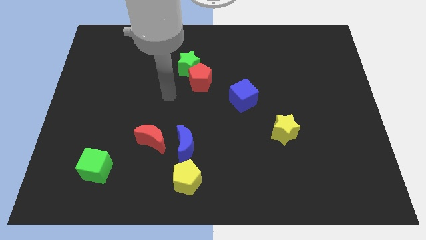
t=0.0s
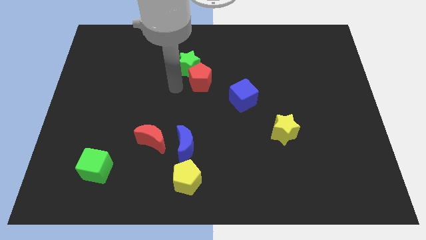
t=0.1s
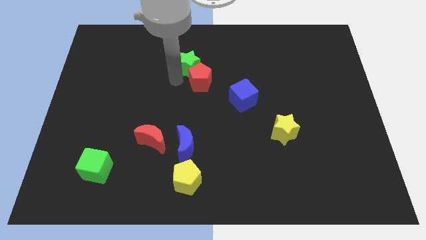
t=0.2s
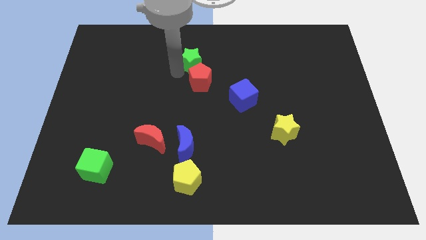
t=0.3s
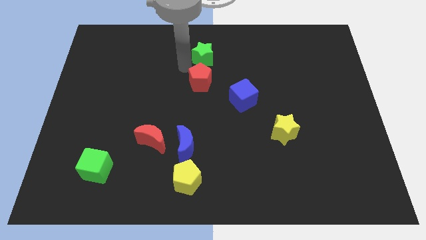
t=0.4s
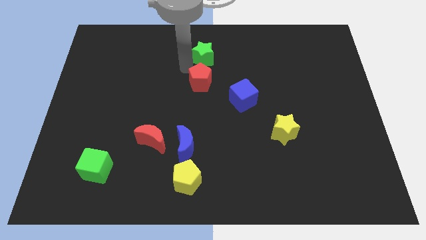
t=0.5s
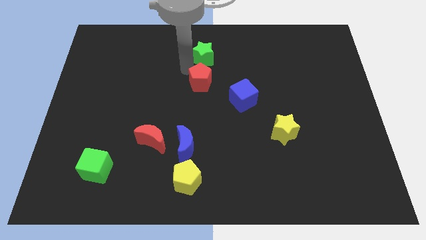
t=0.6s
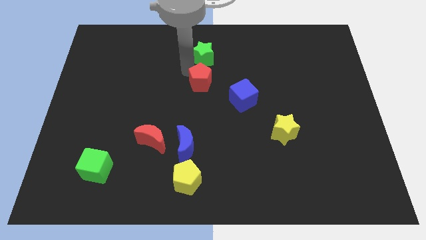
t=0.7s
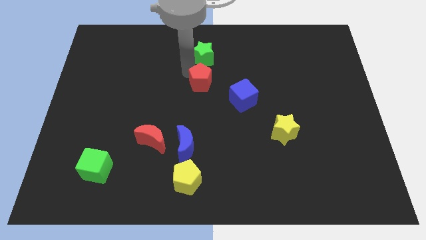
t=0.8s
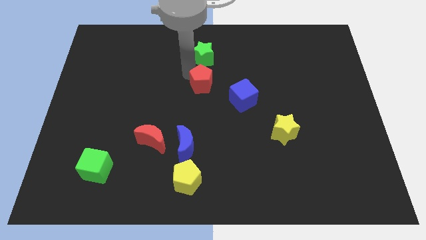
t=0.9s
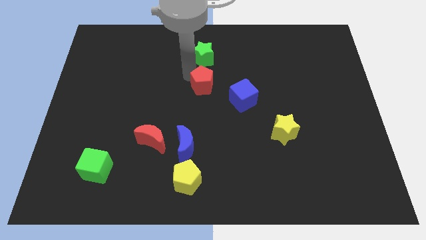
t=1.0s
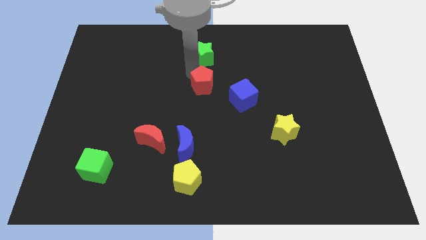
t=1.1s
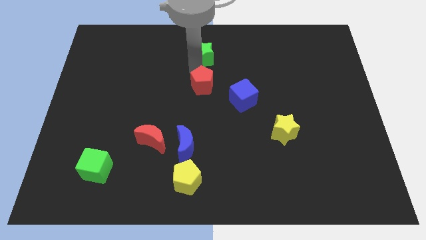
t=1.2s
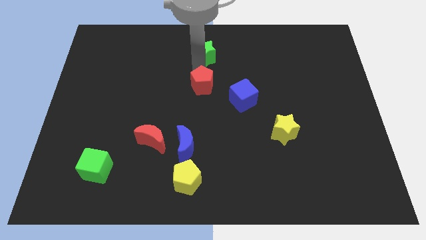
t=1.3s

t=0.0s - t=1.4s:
move the red pentagon away from the green star

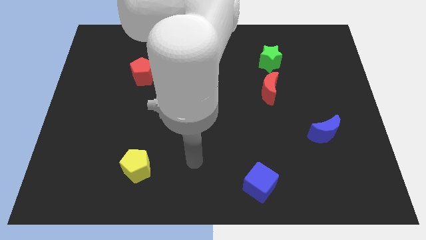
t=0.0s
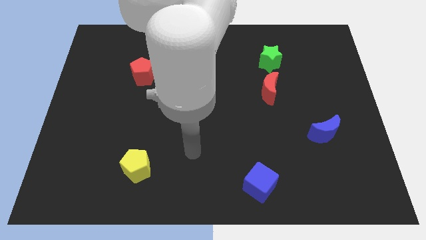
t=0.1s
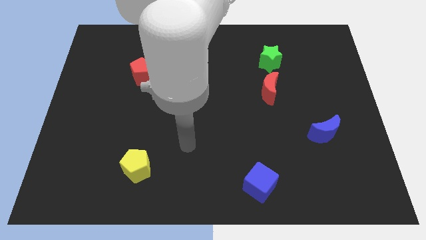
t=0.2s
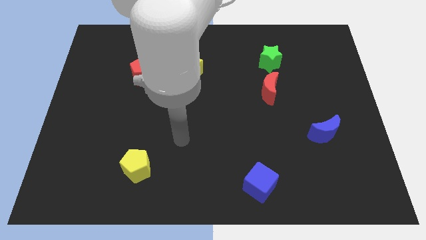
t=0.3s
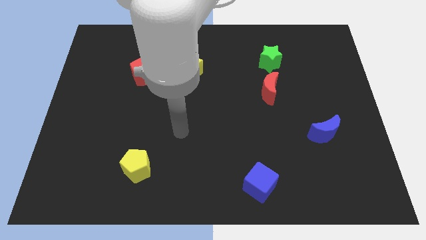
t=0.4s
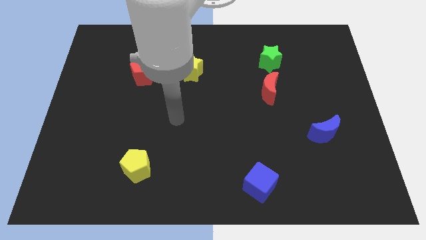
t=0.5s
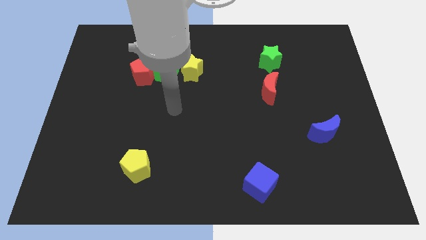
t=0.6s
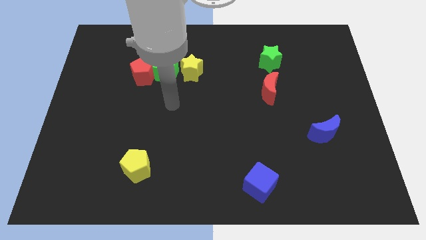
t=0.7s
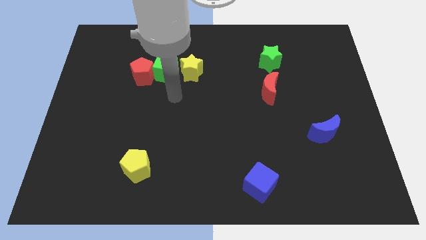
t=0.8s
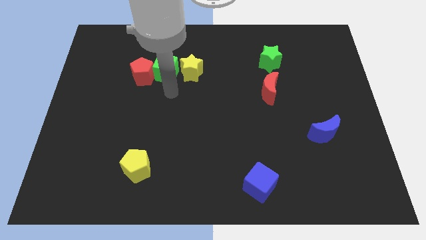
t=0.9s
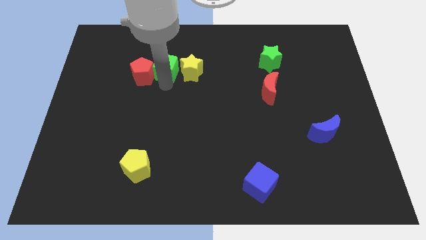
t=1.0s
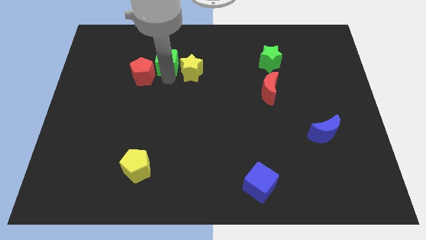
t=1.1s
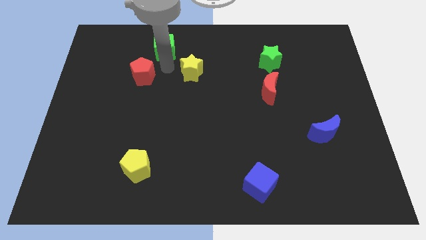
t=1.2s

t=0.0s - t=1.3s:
separate the red pentagon from the green cube

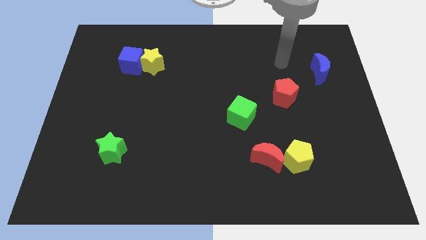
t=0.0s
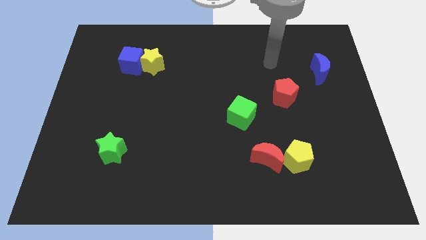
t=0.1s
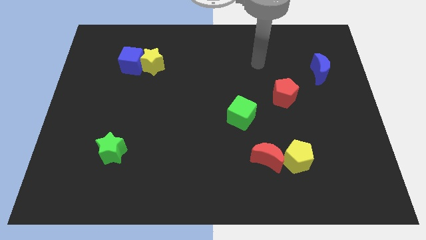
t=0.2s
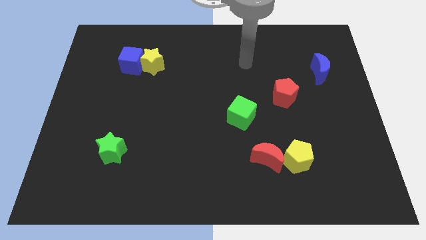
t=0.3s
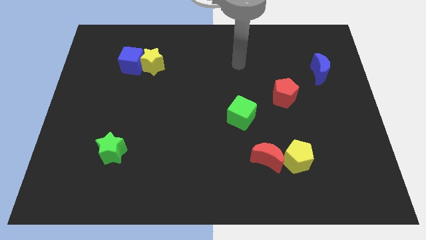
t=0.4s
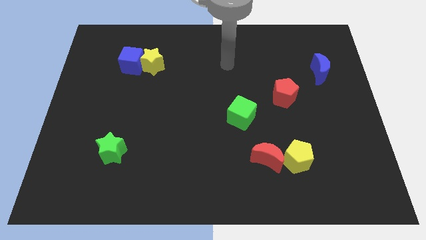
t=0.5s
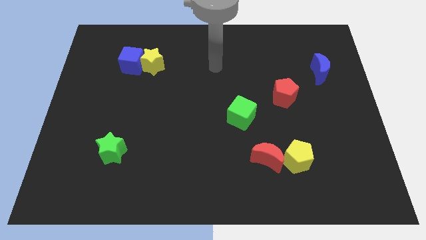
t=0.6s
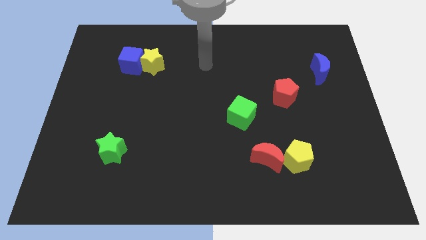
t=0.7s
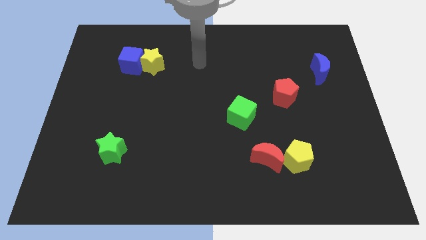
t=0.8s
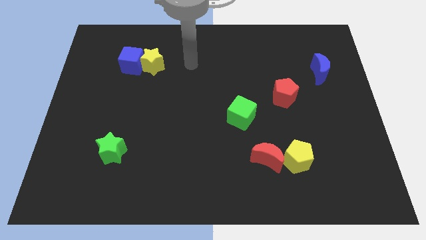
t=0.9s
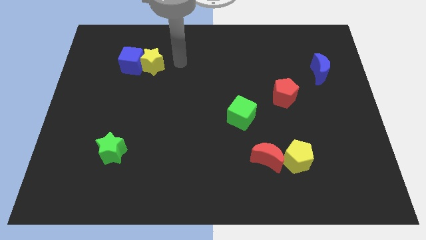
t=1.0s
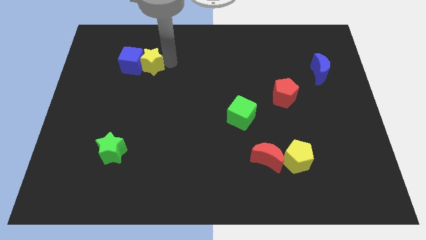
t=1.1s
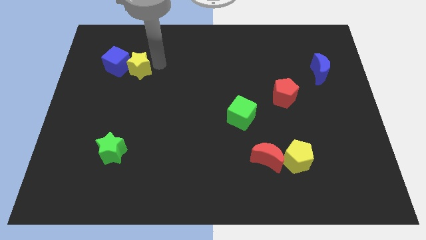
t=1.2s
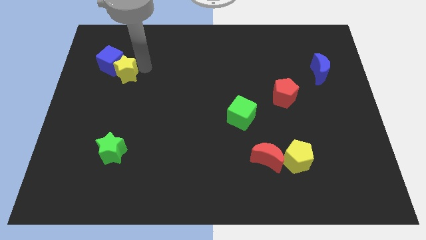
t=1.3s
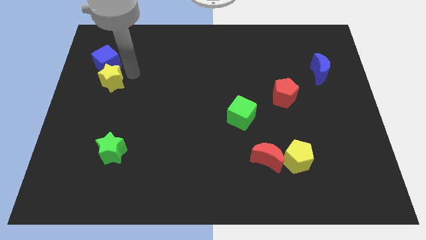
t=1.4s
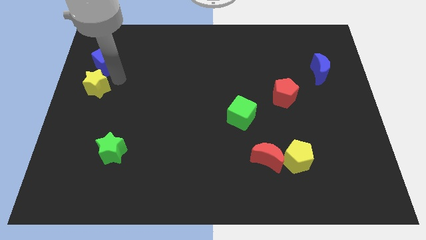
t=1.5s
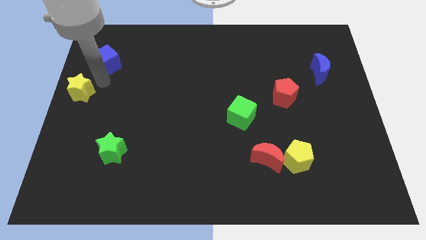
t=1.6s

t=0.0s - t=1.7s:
move the blue cube away from the yellow star

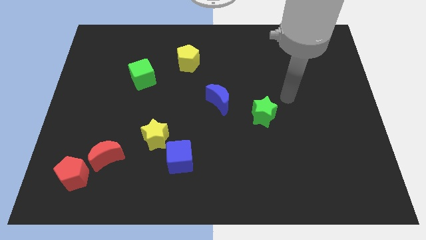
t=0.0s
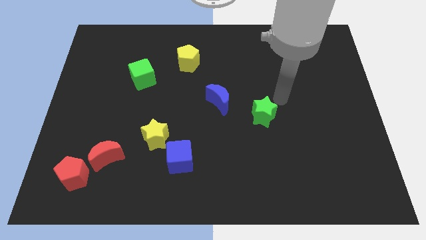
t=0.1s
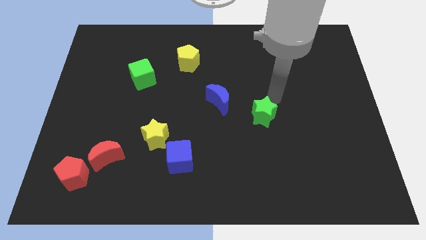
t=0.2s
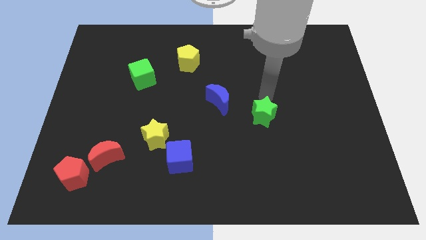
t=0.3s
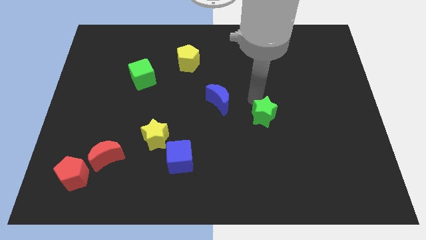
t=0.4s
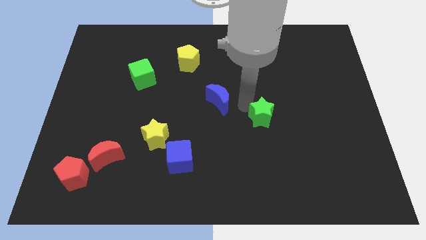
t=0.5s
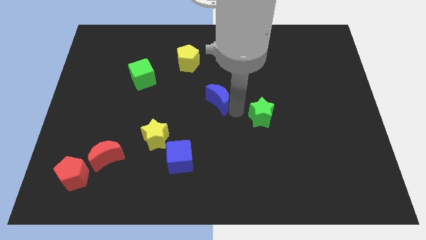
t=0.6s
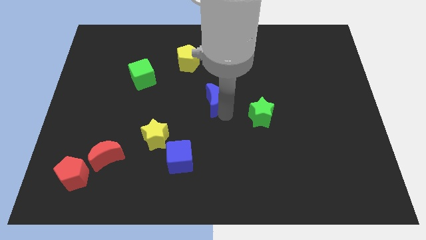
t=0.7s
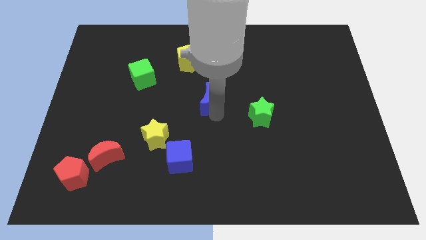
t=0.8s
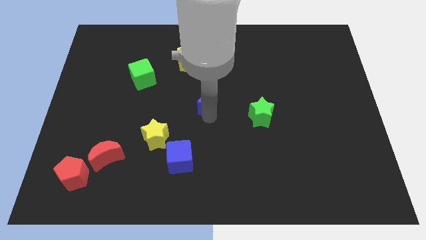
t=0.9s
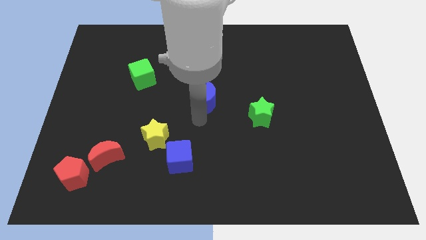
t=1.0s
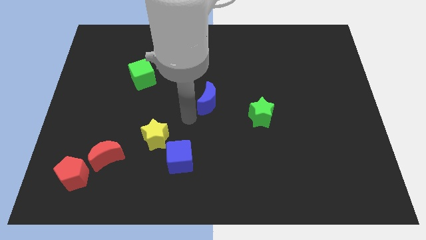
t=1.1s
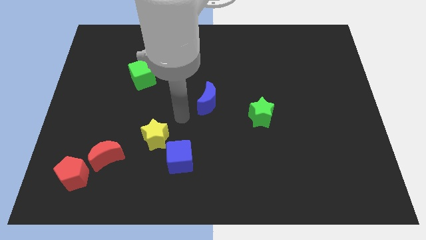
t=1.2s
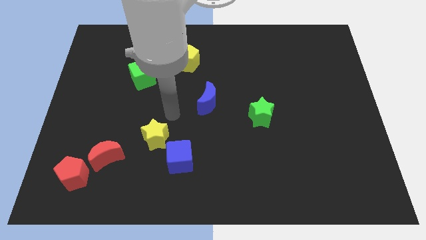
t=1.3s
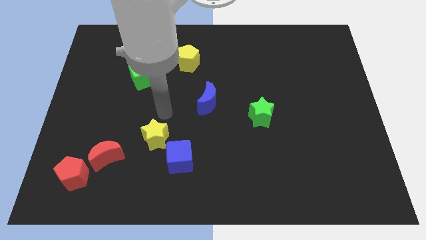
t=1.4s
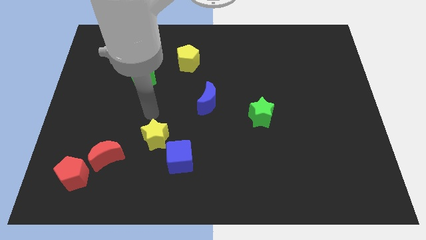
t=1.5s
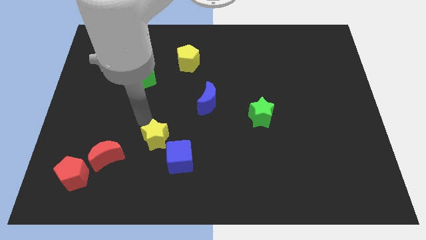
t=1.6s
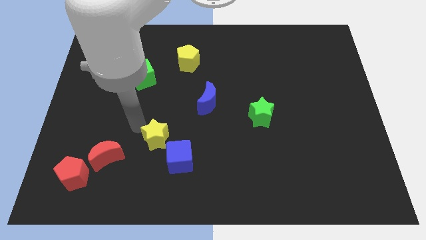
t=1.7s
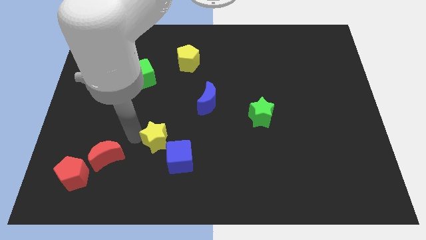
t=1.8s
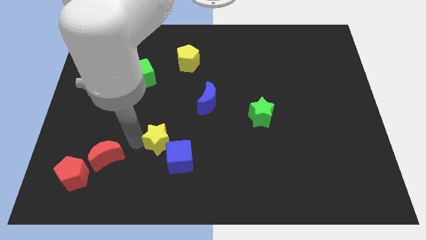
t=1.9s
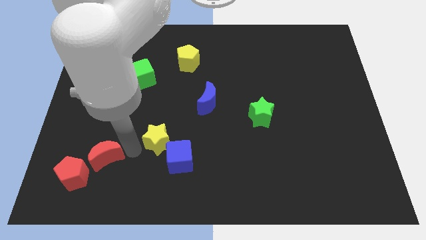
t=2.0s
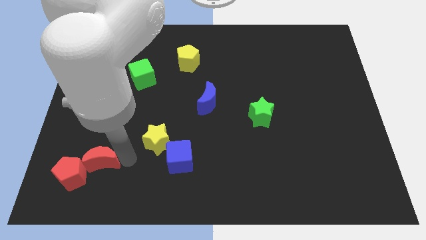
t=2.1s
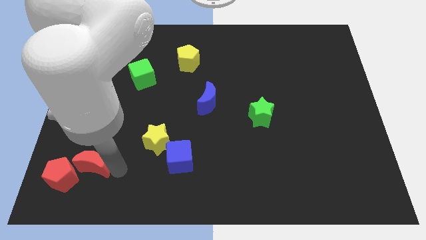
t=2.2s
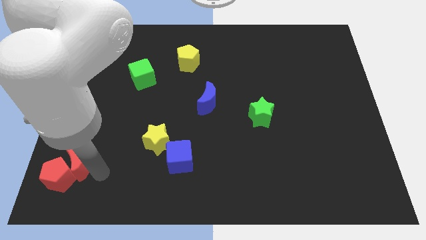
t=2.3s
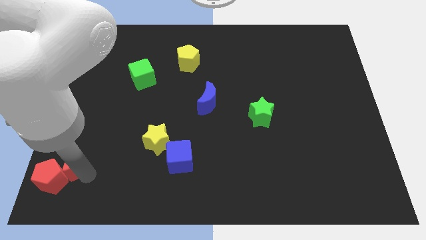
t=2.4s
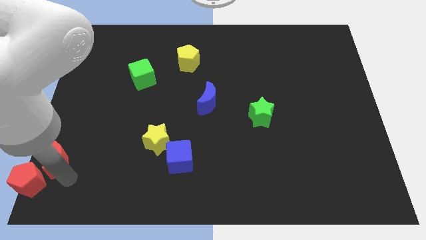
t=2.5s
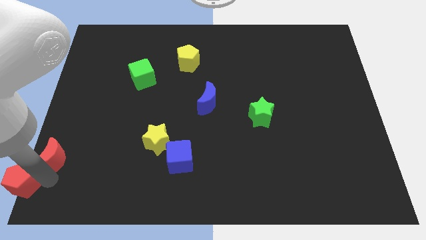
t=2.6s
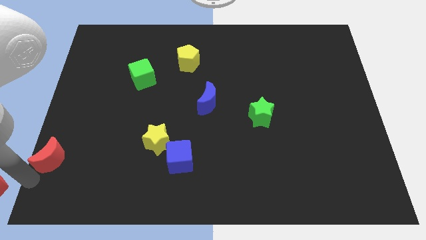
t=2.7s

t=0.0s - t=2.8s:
pull the red moon apart from the red pentagon

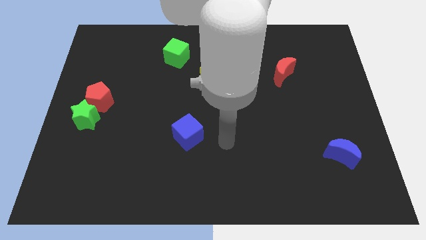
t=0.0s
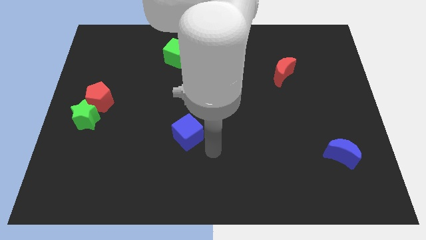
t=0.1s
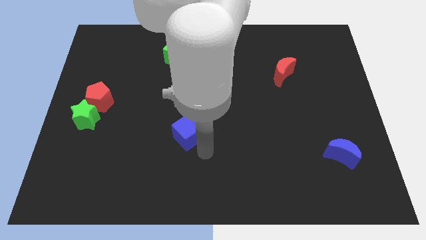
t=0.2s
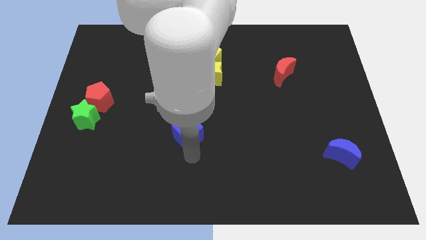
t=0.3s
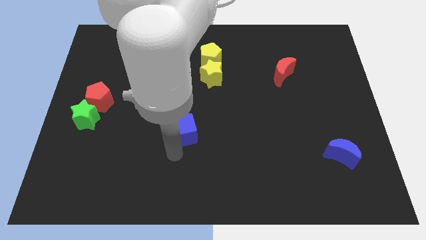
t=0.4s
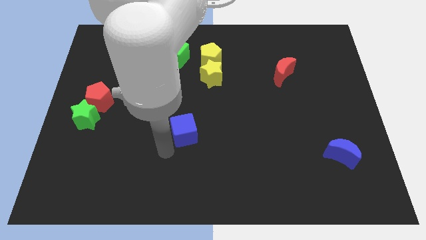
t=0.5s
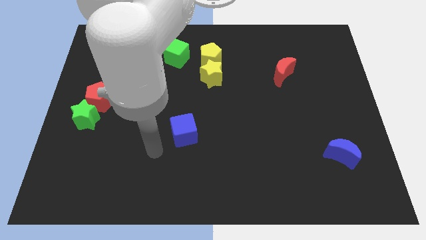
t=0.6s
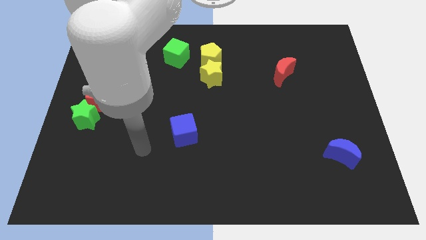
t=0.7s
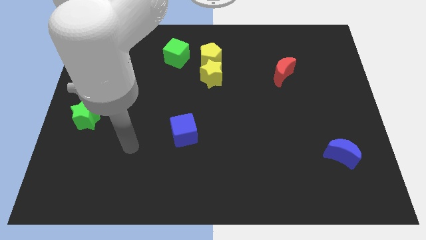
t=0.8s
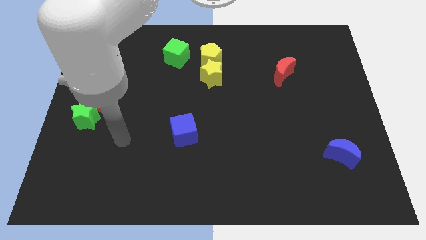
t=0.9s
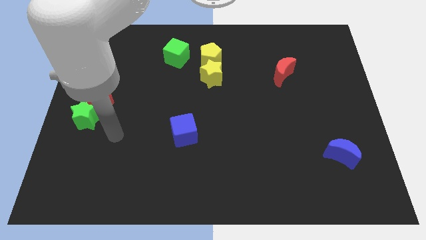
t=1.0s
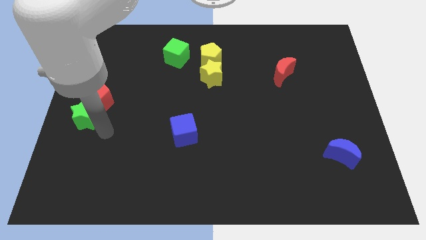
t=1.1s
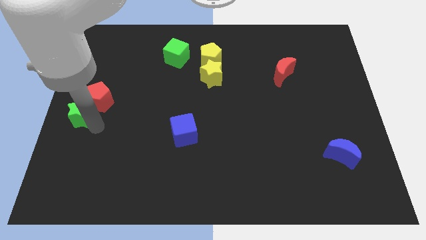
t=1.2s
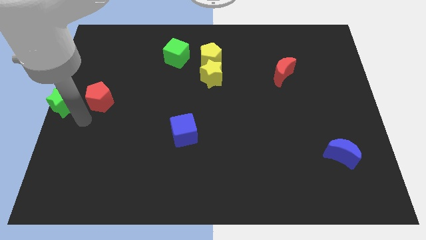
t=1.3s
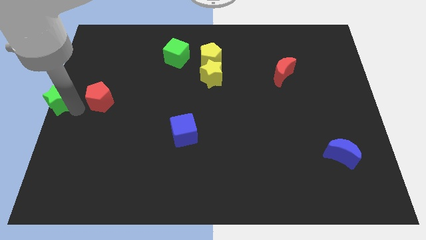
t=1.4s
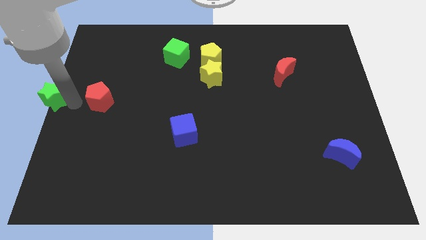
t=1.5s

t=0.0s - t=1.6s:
pull the red pentagon apart from the green star

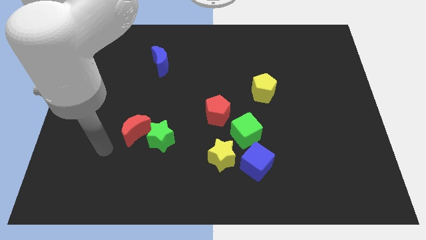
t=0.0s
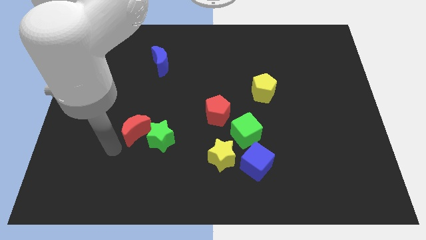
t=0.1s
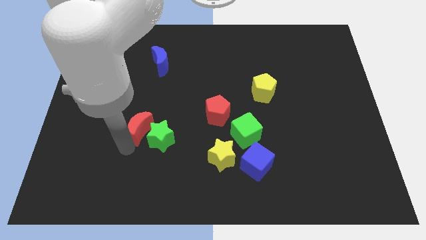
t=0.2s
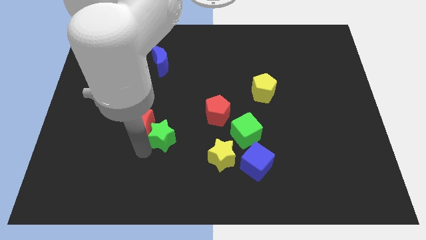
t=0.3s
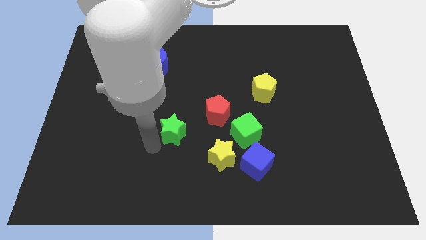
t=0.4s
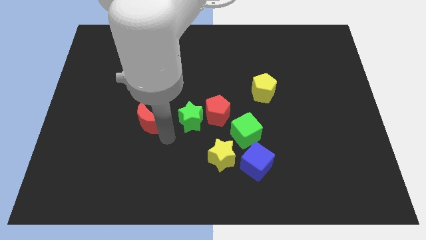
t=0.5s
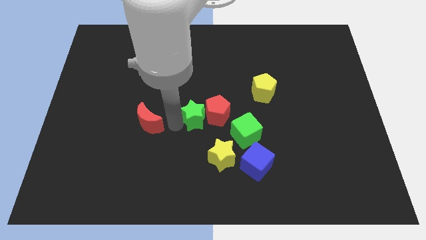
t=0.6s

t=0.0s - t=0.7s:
separate the red moon from the green star
